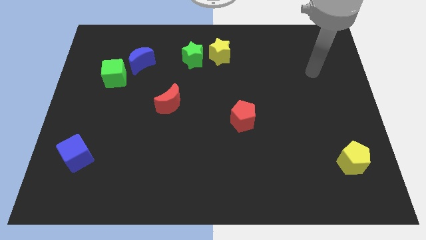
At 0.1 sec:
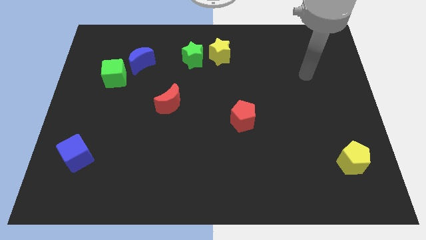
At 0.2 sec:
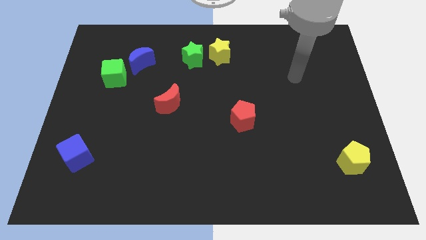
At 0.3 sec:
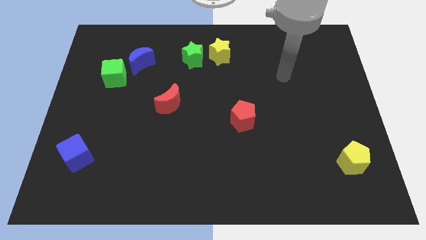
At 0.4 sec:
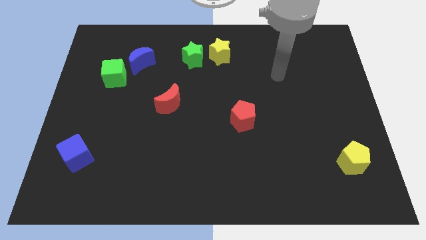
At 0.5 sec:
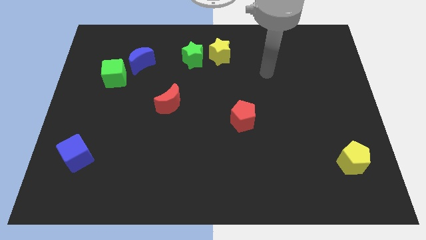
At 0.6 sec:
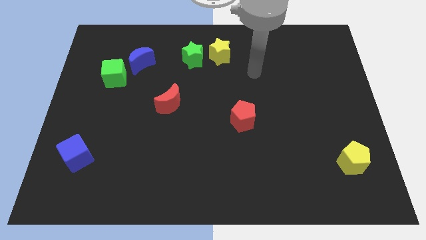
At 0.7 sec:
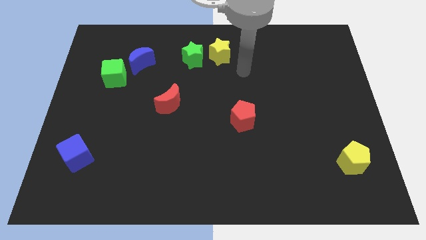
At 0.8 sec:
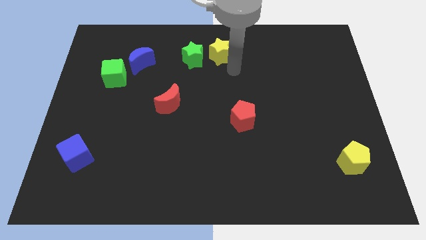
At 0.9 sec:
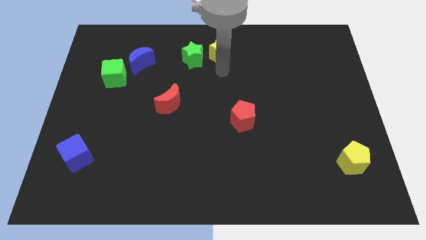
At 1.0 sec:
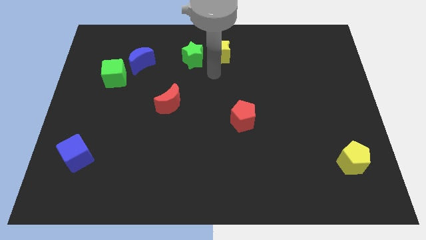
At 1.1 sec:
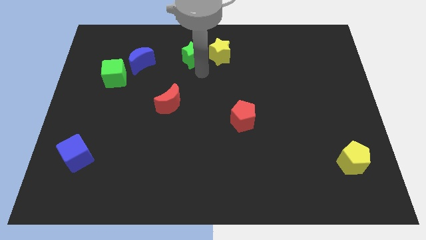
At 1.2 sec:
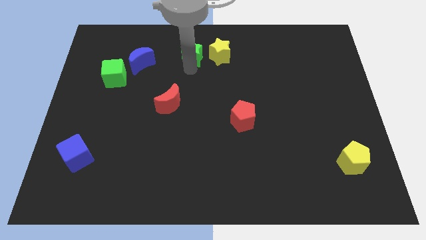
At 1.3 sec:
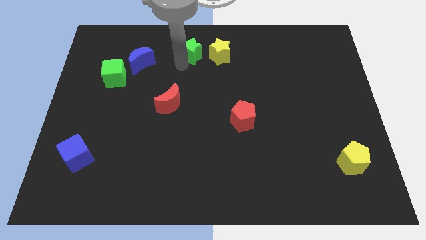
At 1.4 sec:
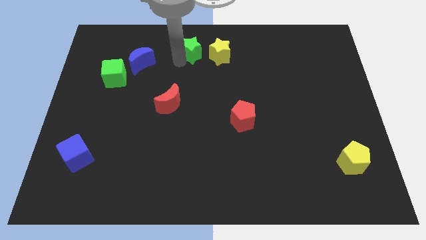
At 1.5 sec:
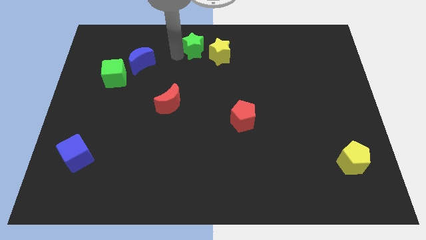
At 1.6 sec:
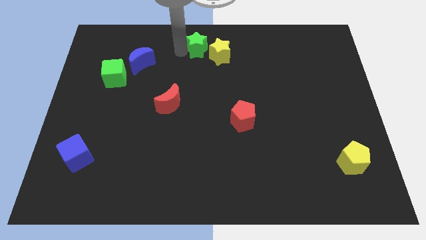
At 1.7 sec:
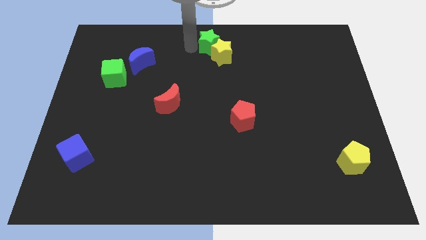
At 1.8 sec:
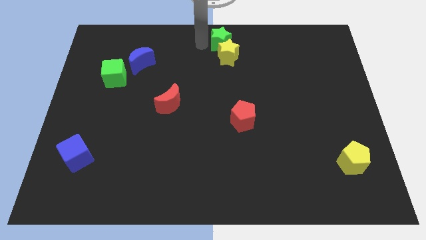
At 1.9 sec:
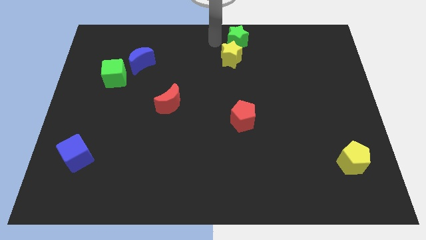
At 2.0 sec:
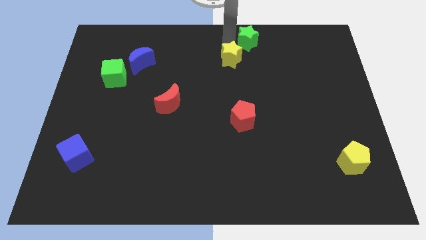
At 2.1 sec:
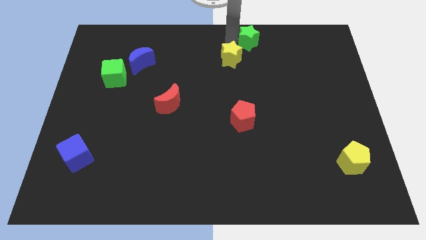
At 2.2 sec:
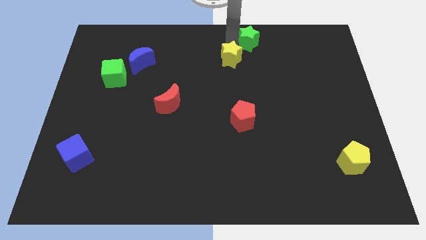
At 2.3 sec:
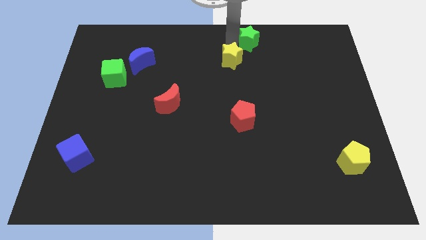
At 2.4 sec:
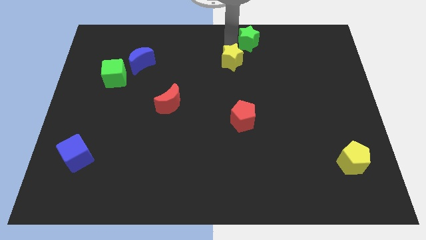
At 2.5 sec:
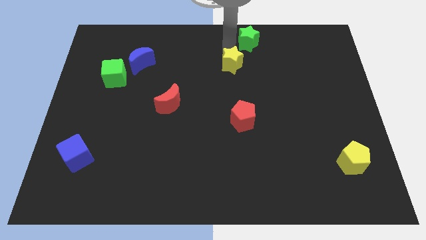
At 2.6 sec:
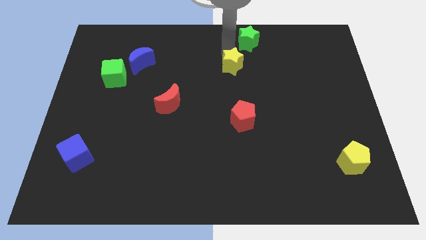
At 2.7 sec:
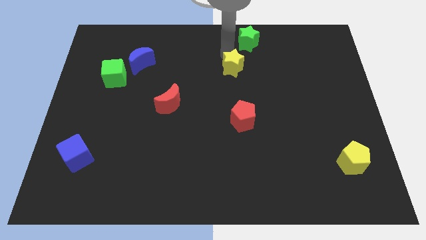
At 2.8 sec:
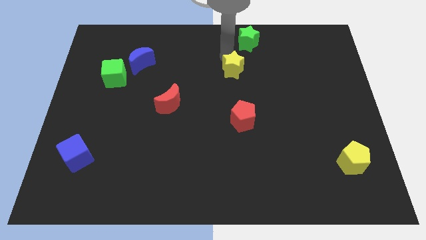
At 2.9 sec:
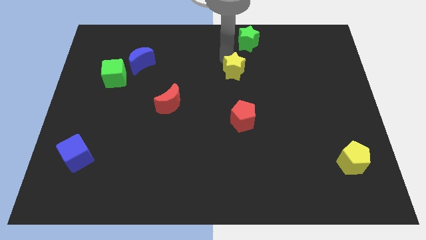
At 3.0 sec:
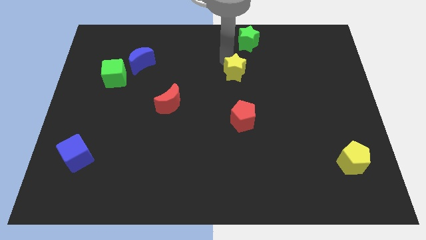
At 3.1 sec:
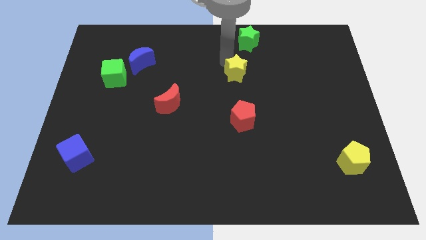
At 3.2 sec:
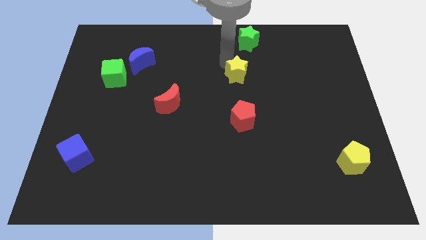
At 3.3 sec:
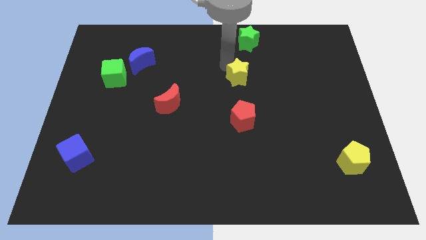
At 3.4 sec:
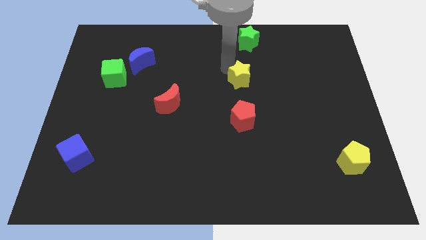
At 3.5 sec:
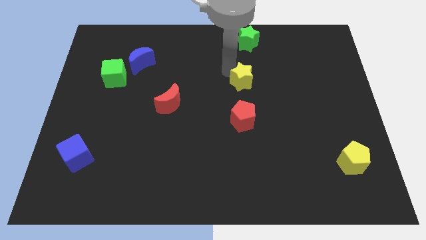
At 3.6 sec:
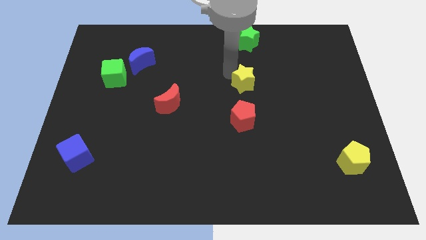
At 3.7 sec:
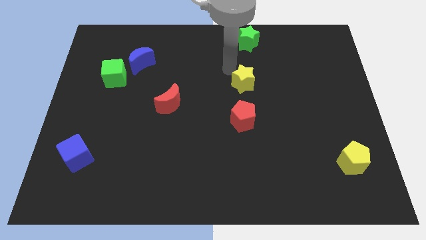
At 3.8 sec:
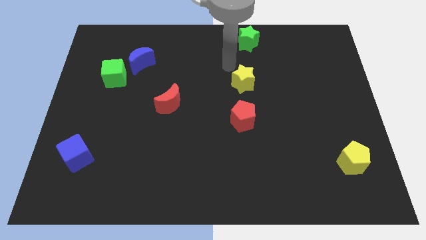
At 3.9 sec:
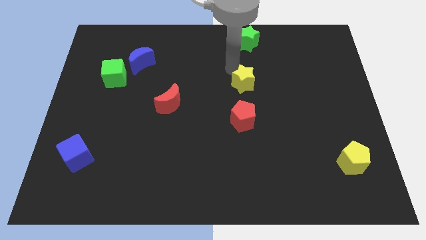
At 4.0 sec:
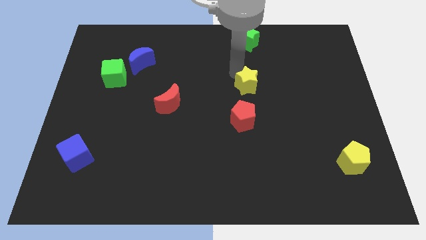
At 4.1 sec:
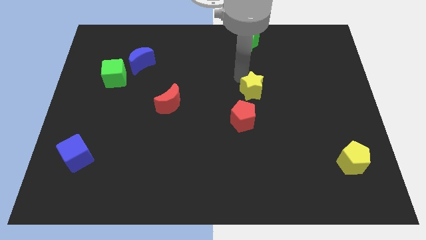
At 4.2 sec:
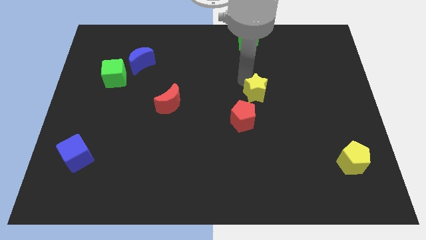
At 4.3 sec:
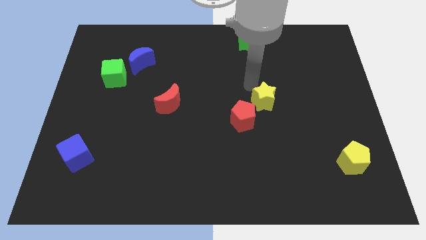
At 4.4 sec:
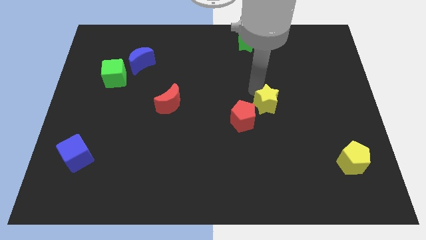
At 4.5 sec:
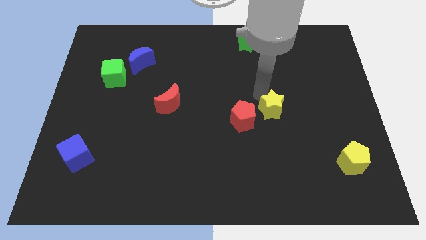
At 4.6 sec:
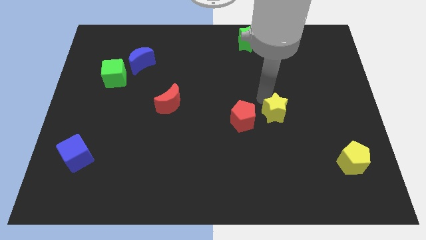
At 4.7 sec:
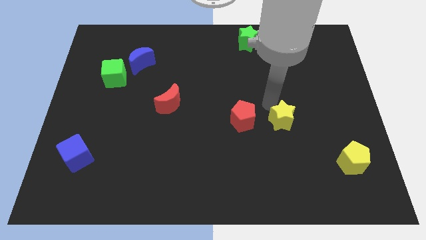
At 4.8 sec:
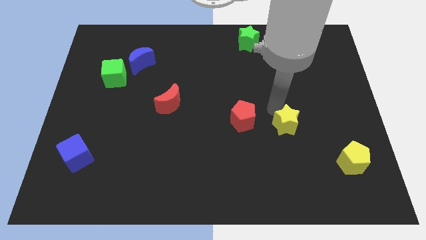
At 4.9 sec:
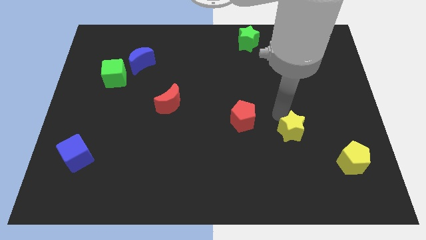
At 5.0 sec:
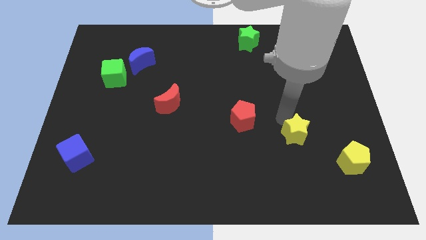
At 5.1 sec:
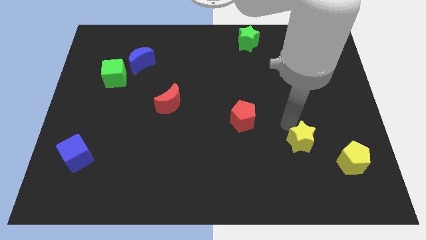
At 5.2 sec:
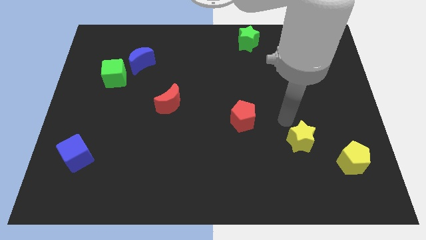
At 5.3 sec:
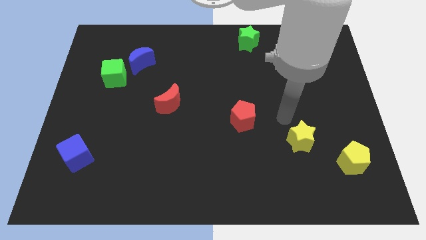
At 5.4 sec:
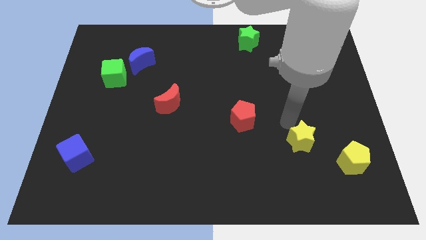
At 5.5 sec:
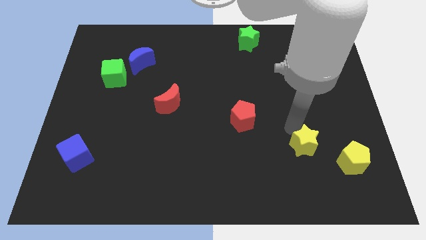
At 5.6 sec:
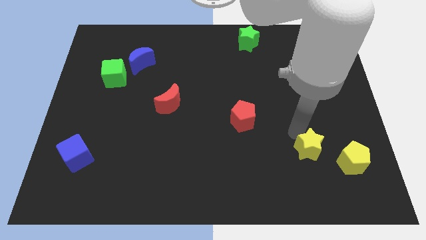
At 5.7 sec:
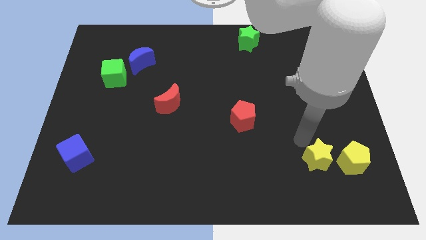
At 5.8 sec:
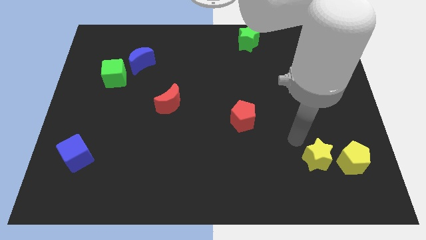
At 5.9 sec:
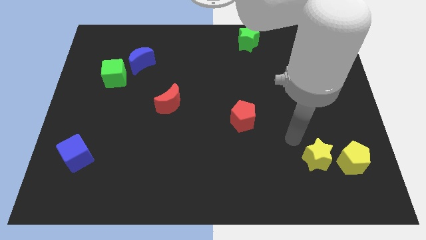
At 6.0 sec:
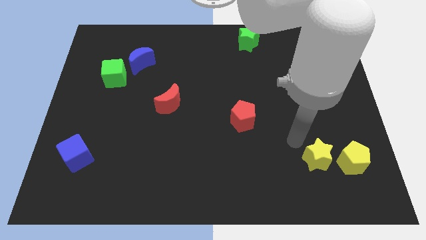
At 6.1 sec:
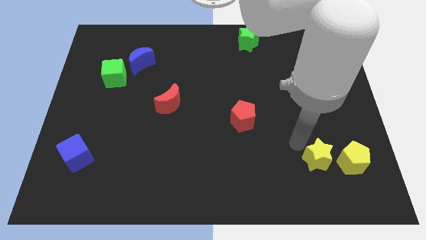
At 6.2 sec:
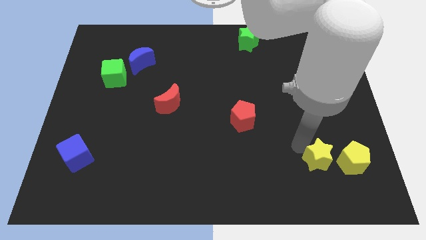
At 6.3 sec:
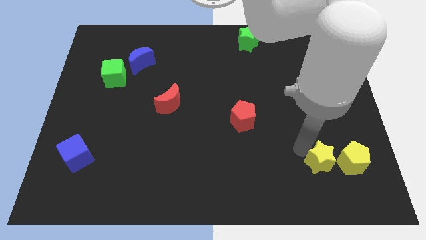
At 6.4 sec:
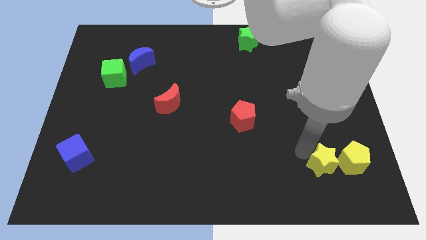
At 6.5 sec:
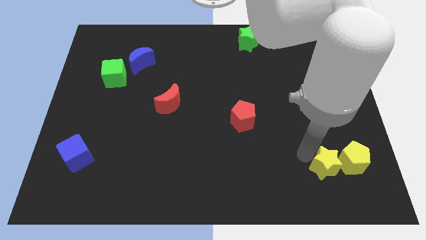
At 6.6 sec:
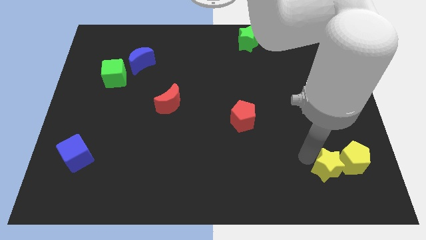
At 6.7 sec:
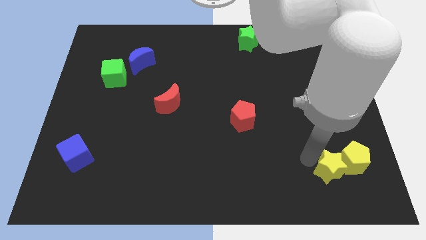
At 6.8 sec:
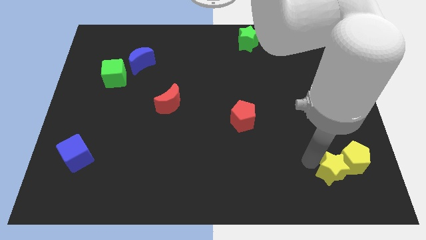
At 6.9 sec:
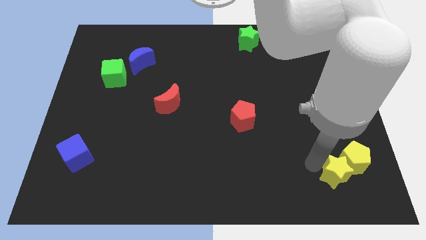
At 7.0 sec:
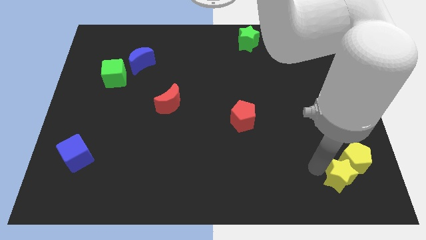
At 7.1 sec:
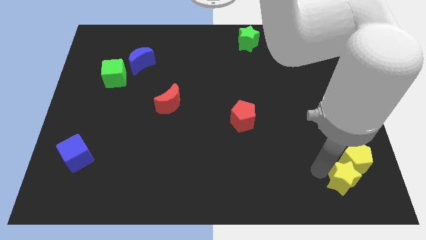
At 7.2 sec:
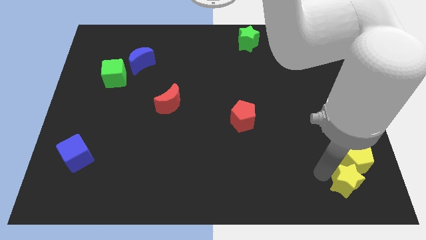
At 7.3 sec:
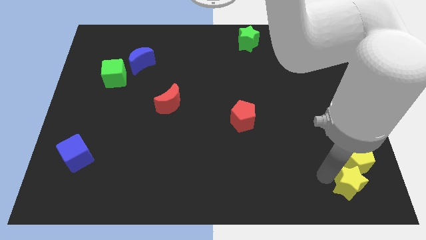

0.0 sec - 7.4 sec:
push the yellow star to the bottom right
